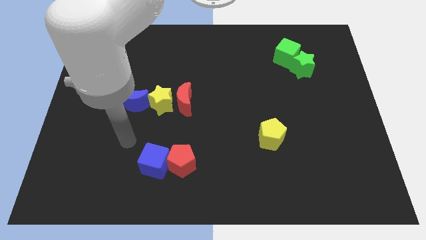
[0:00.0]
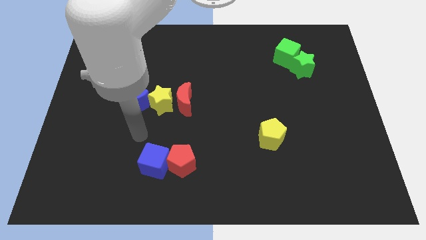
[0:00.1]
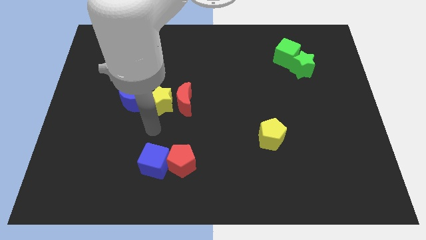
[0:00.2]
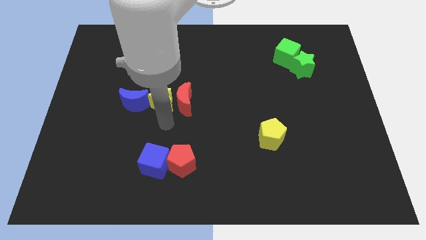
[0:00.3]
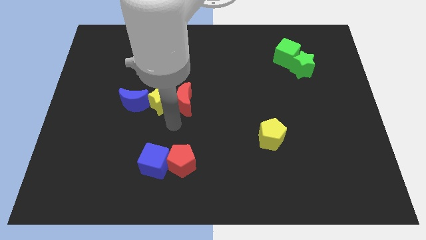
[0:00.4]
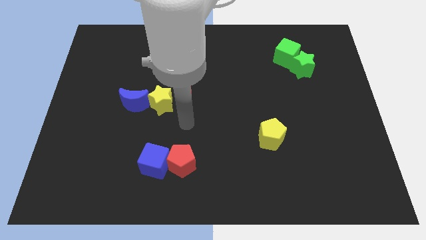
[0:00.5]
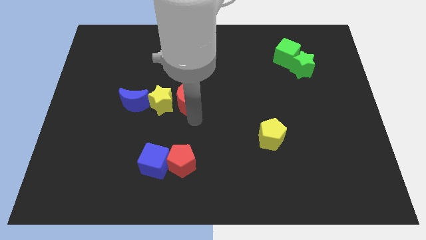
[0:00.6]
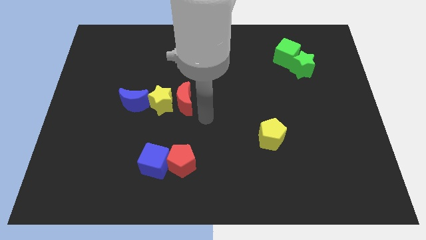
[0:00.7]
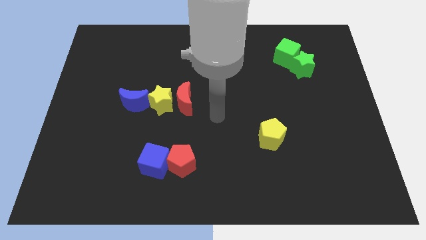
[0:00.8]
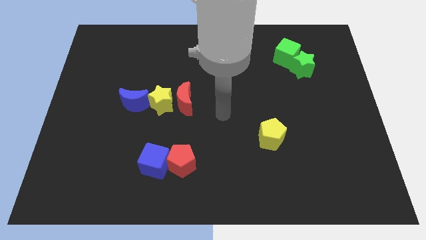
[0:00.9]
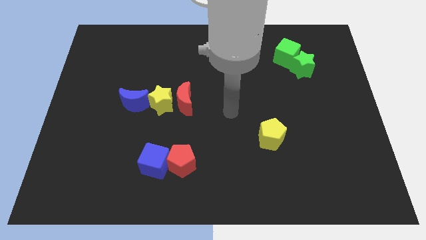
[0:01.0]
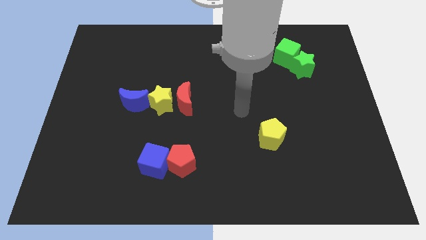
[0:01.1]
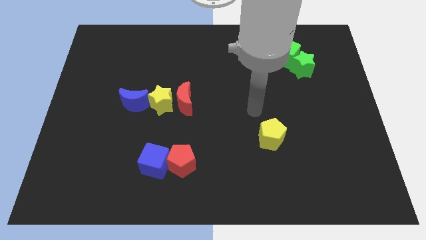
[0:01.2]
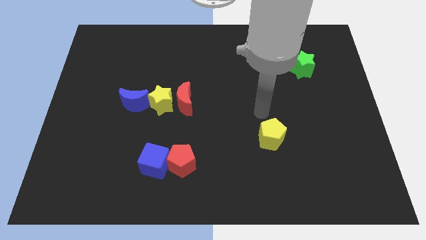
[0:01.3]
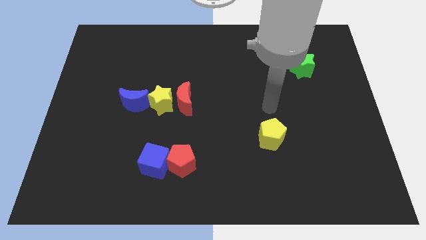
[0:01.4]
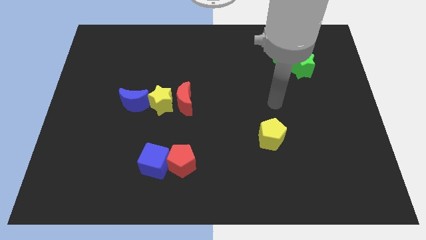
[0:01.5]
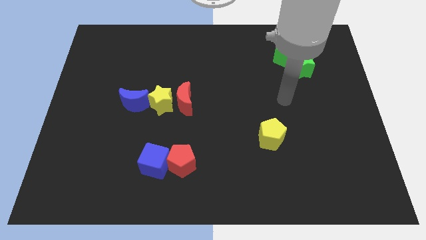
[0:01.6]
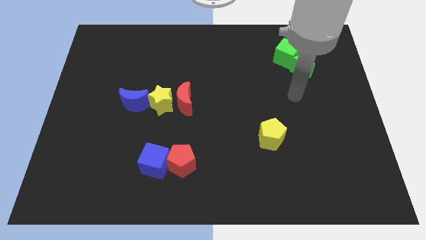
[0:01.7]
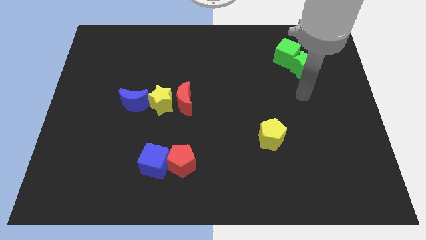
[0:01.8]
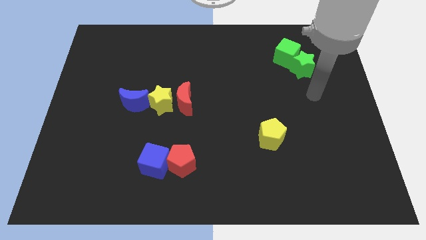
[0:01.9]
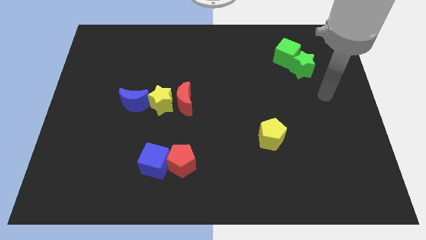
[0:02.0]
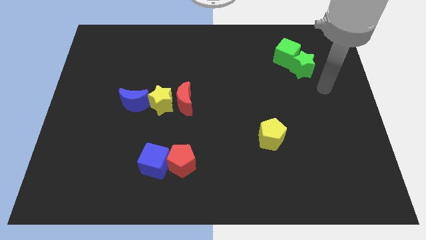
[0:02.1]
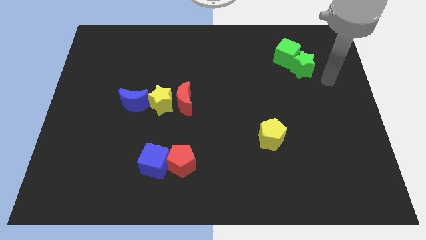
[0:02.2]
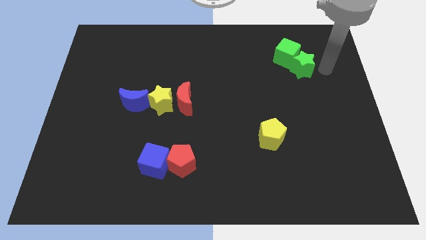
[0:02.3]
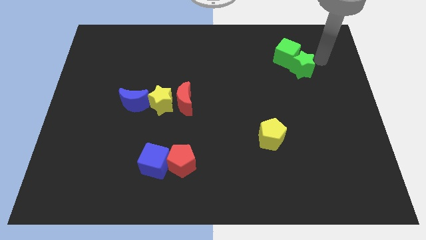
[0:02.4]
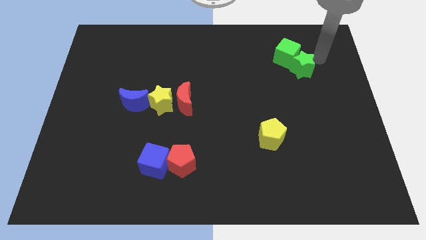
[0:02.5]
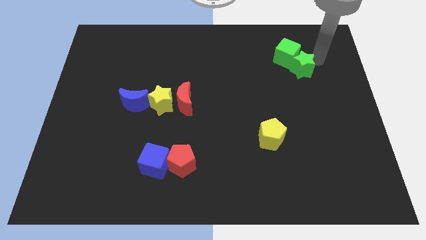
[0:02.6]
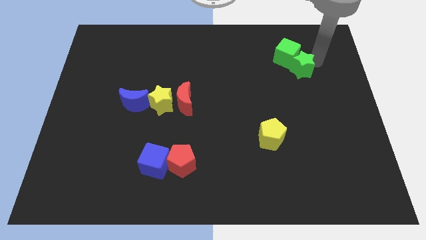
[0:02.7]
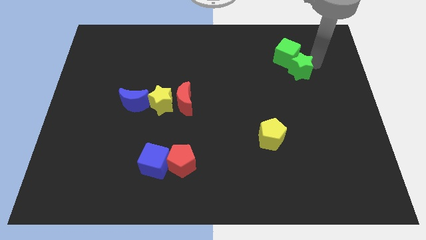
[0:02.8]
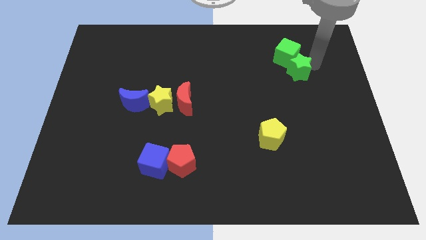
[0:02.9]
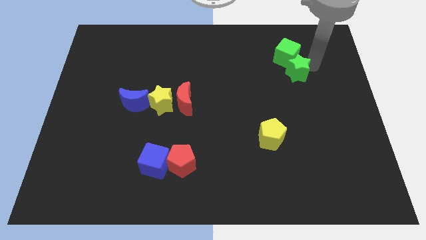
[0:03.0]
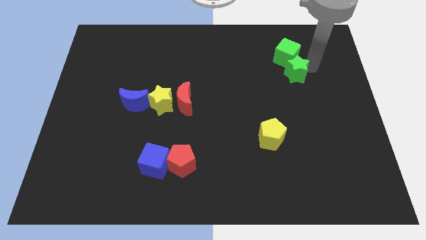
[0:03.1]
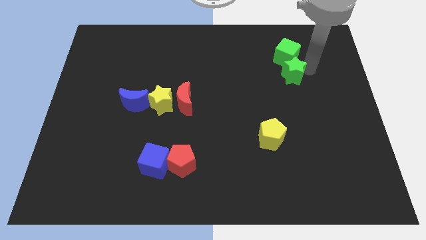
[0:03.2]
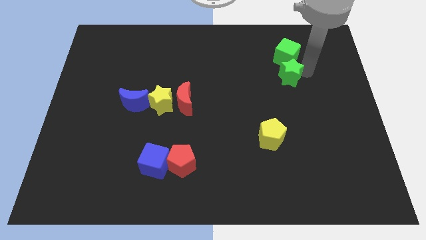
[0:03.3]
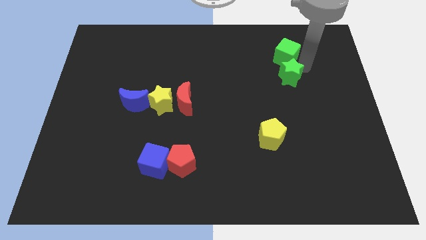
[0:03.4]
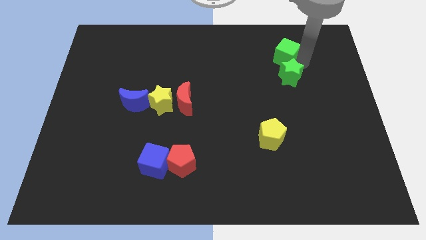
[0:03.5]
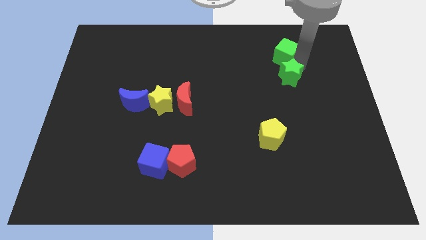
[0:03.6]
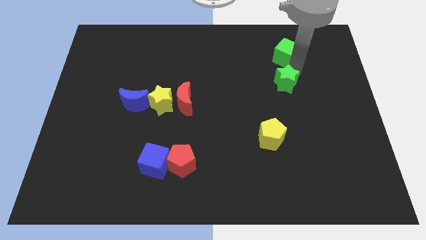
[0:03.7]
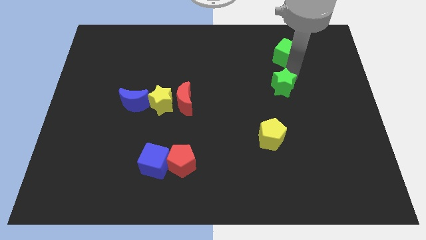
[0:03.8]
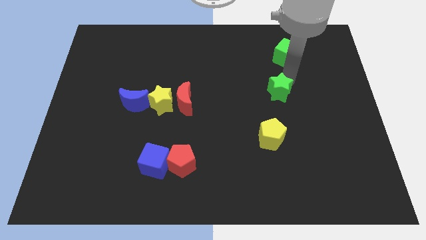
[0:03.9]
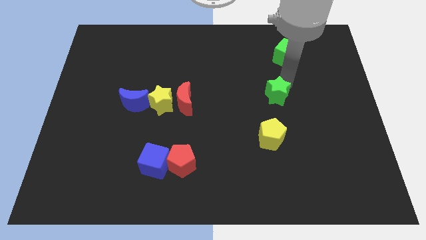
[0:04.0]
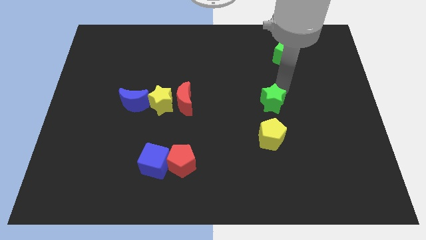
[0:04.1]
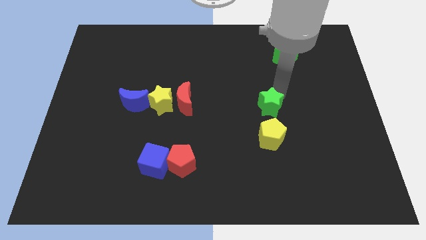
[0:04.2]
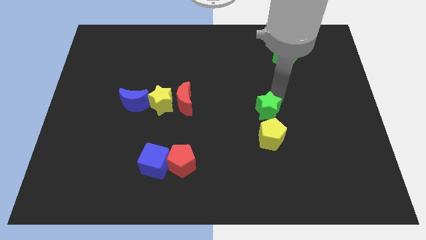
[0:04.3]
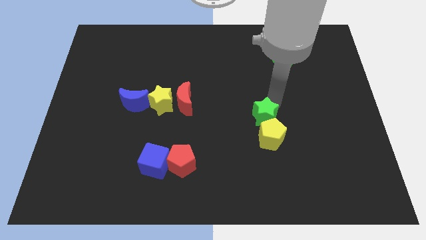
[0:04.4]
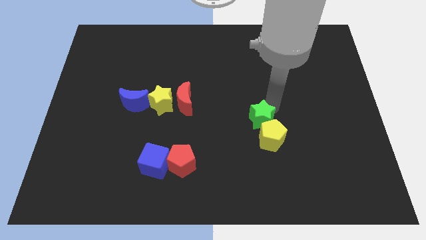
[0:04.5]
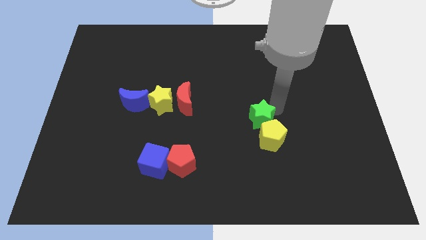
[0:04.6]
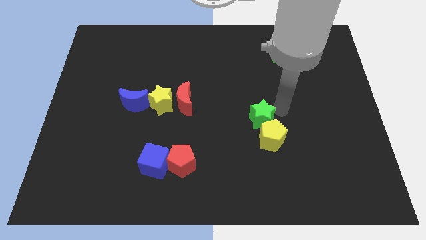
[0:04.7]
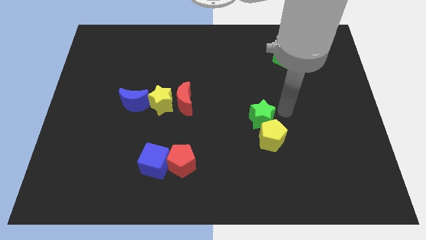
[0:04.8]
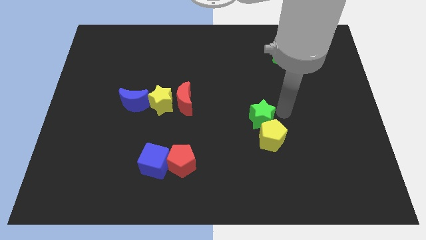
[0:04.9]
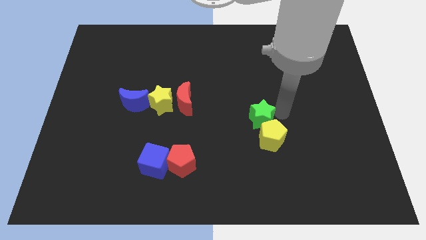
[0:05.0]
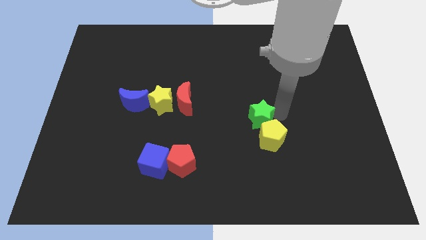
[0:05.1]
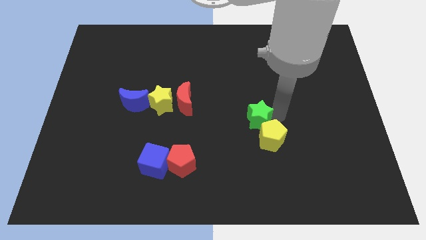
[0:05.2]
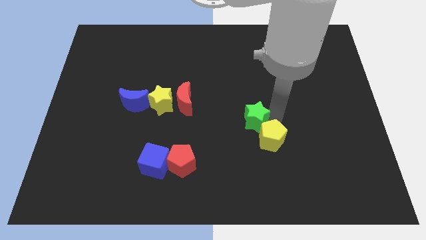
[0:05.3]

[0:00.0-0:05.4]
slide the green star to the left of the yellow pentagon

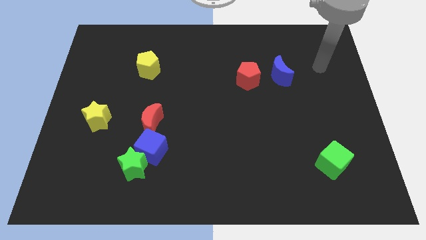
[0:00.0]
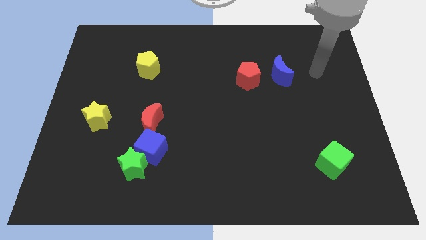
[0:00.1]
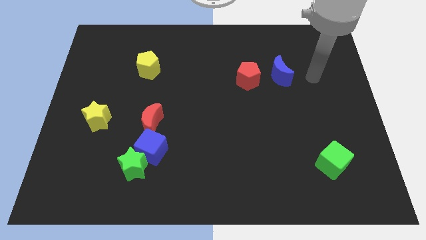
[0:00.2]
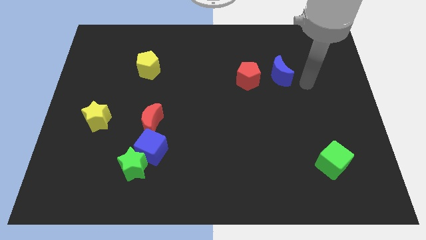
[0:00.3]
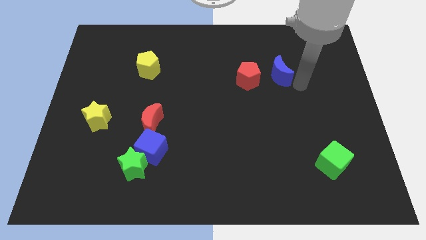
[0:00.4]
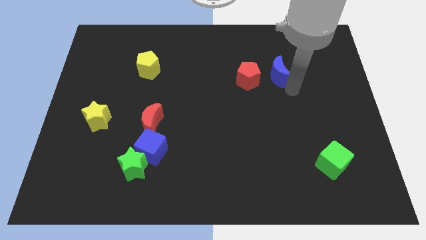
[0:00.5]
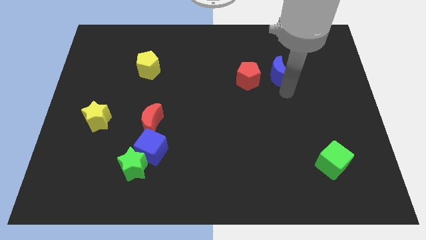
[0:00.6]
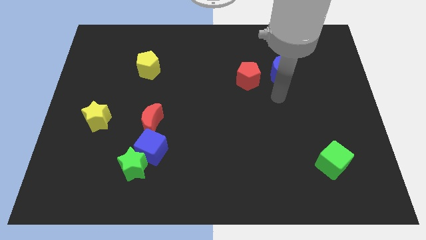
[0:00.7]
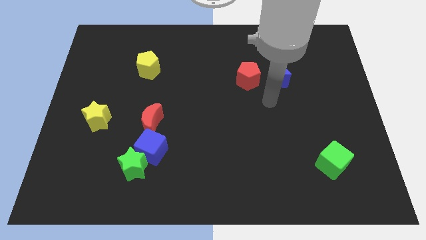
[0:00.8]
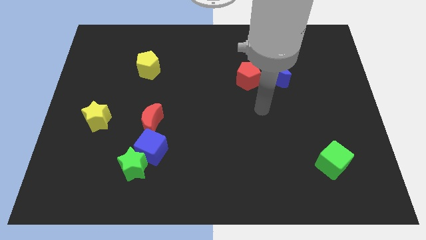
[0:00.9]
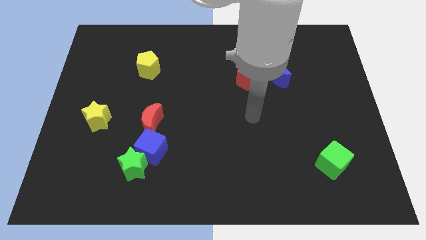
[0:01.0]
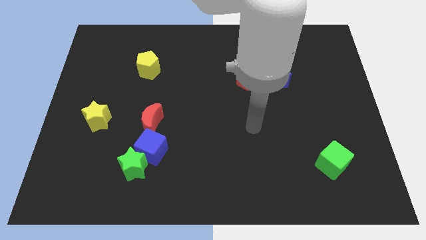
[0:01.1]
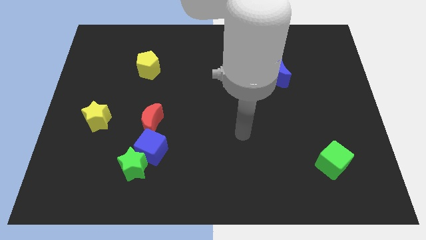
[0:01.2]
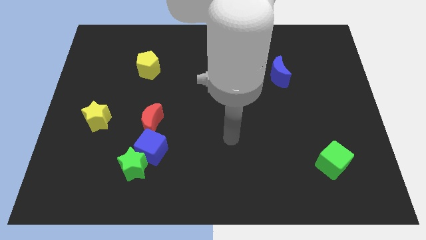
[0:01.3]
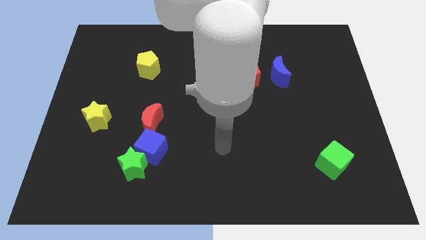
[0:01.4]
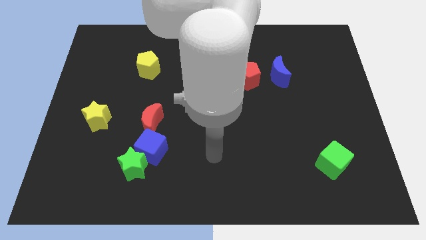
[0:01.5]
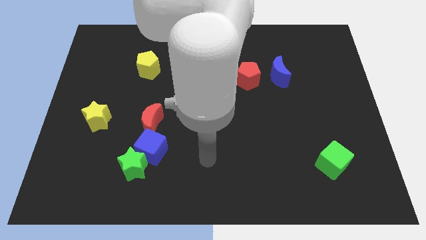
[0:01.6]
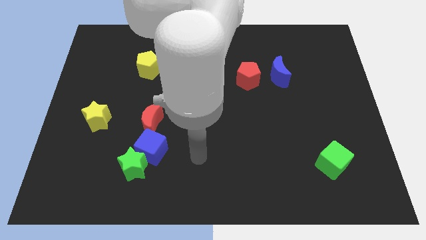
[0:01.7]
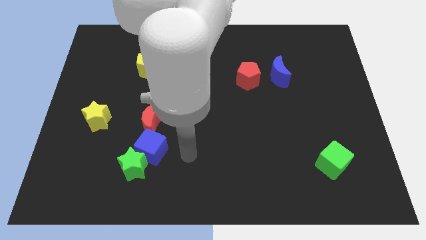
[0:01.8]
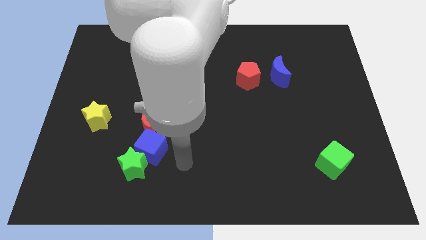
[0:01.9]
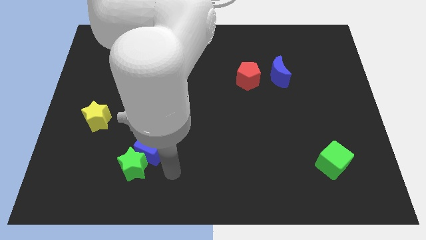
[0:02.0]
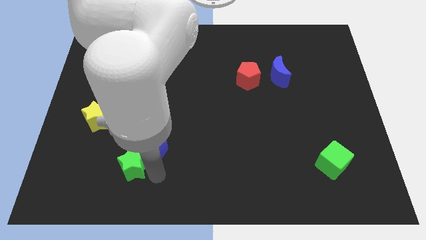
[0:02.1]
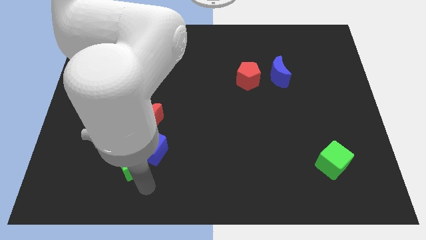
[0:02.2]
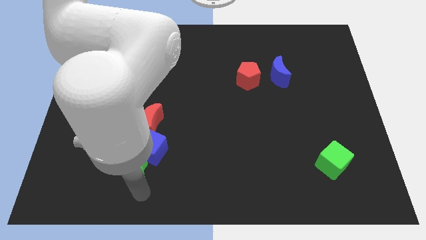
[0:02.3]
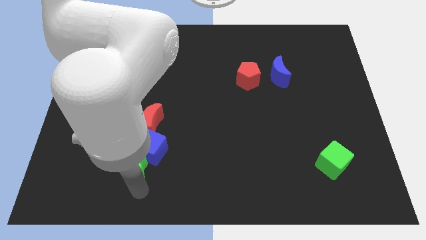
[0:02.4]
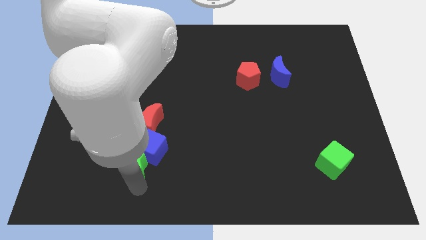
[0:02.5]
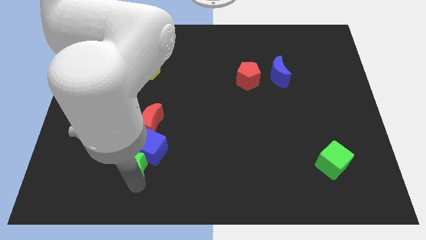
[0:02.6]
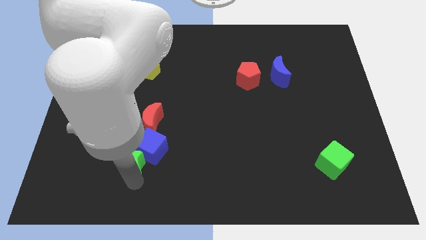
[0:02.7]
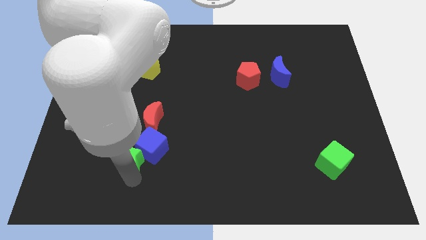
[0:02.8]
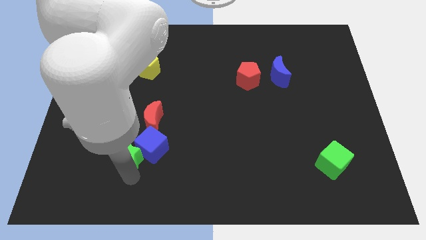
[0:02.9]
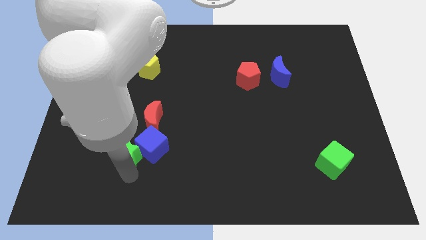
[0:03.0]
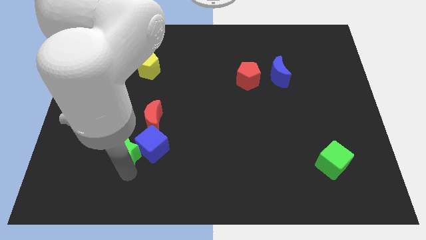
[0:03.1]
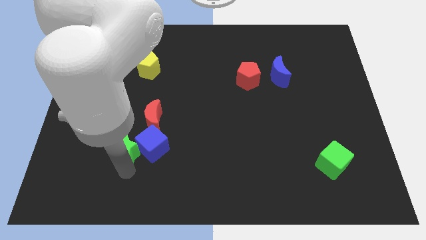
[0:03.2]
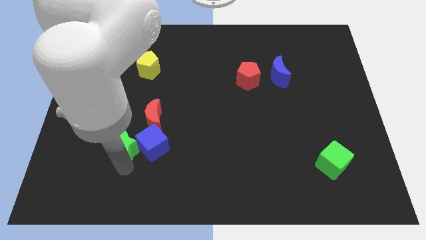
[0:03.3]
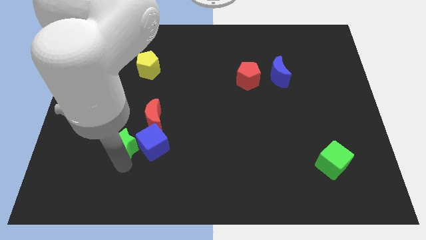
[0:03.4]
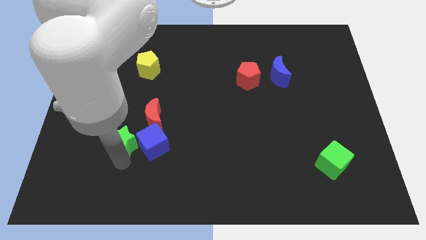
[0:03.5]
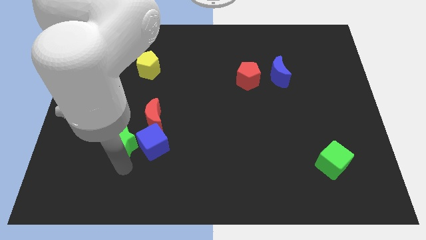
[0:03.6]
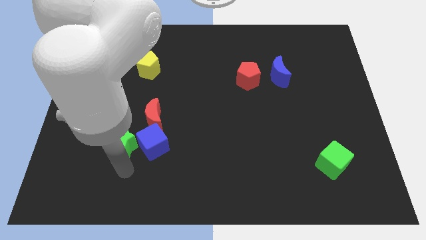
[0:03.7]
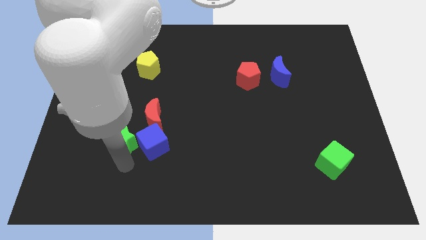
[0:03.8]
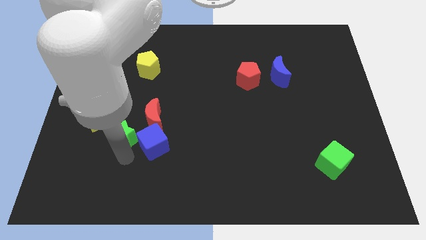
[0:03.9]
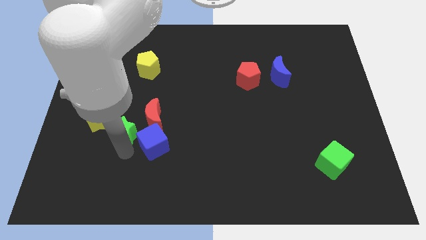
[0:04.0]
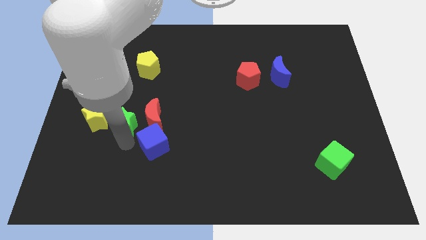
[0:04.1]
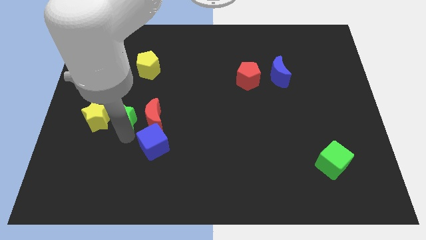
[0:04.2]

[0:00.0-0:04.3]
put the green star diagonally up and to the right of the yellow star
